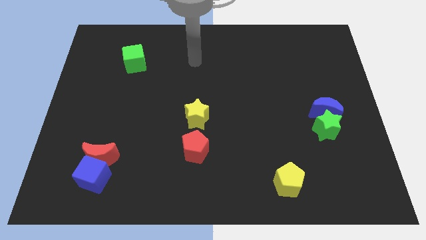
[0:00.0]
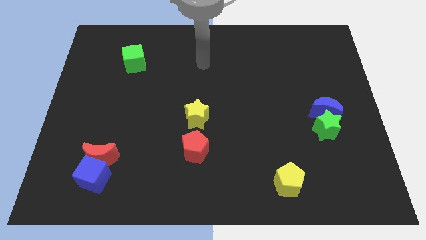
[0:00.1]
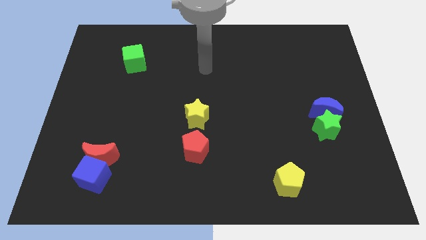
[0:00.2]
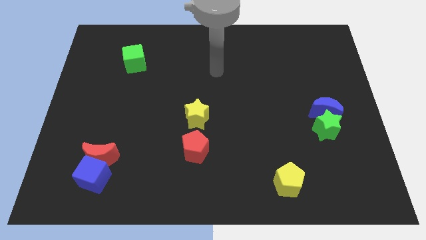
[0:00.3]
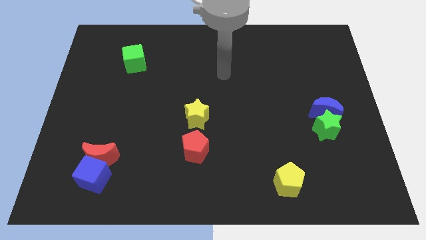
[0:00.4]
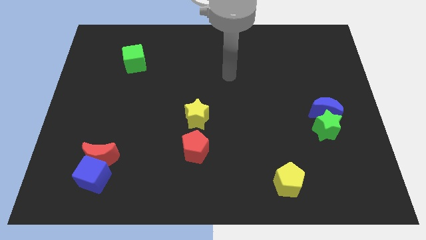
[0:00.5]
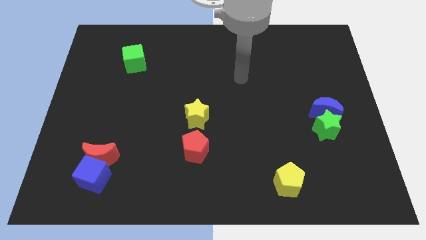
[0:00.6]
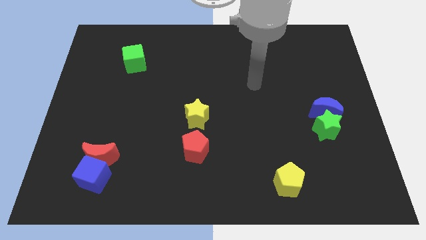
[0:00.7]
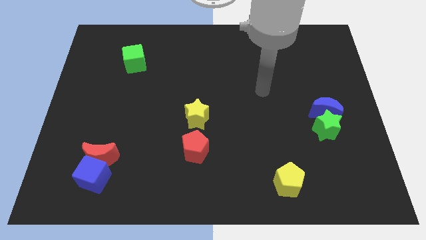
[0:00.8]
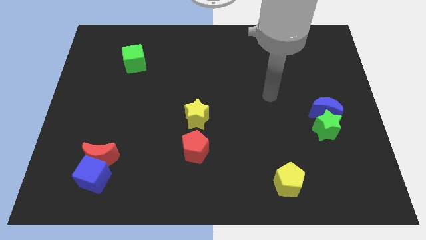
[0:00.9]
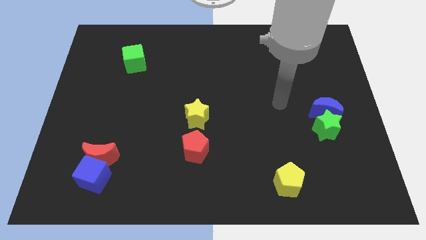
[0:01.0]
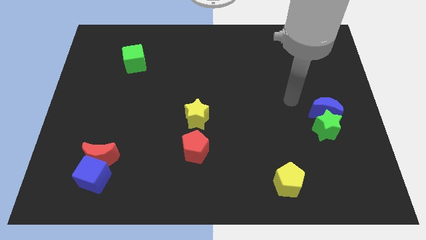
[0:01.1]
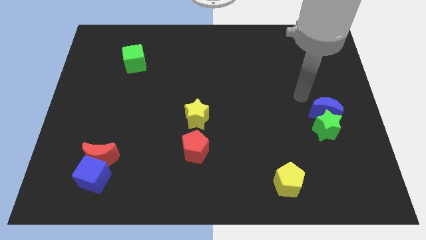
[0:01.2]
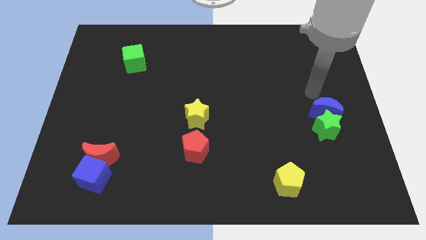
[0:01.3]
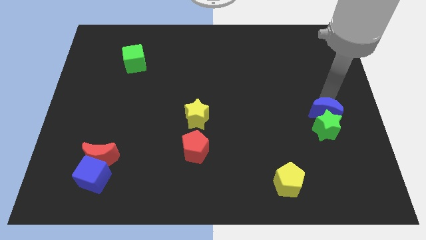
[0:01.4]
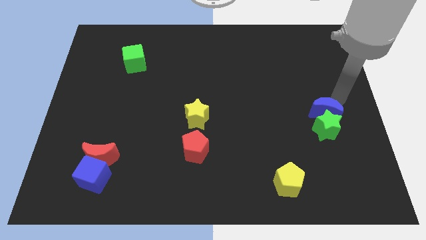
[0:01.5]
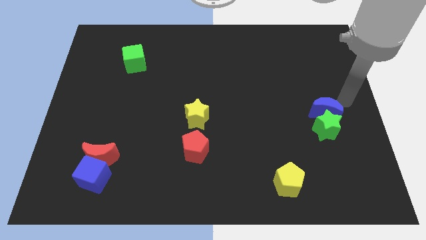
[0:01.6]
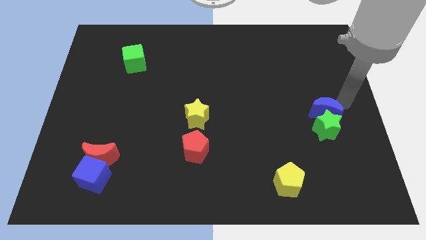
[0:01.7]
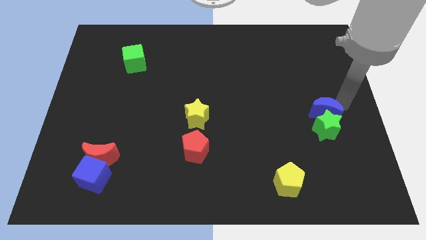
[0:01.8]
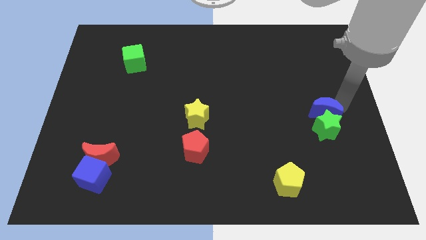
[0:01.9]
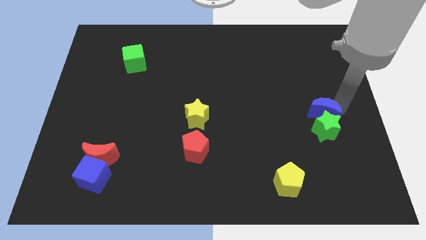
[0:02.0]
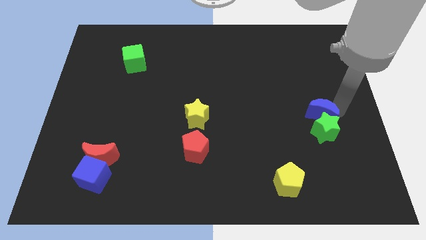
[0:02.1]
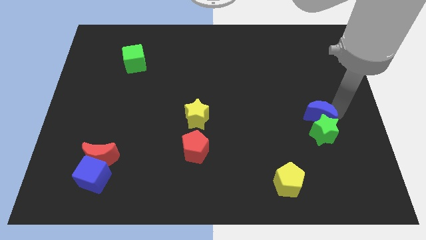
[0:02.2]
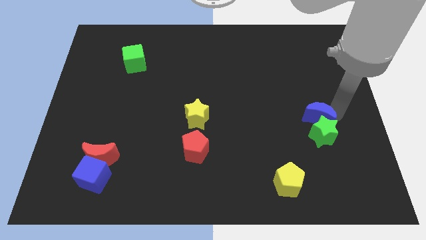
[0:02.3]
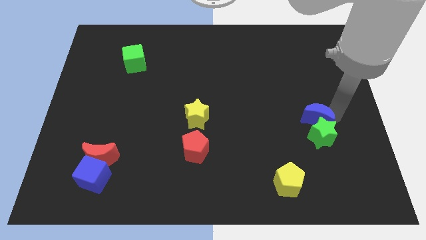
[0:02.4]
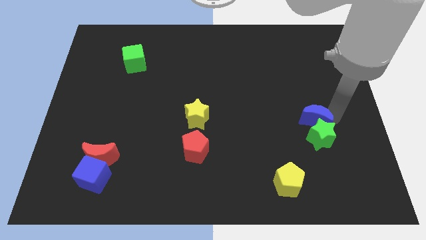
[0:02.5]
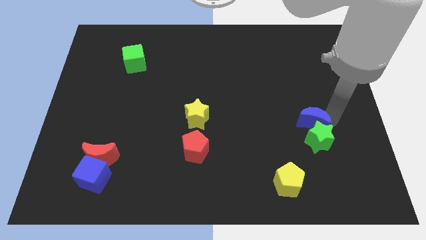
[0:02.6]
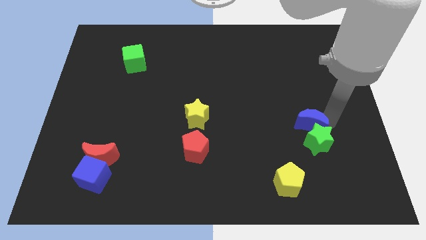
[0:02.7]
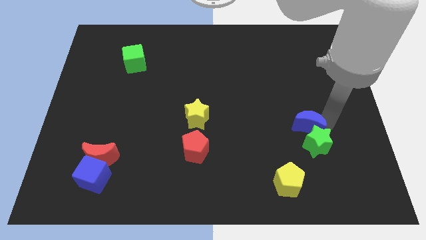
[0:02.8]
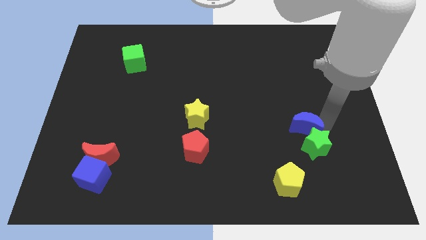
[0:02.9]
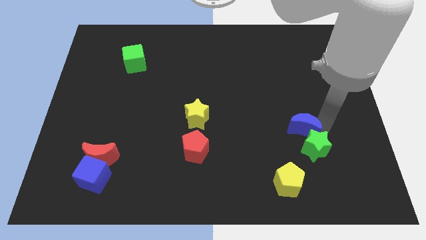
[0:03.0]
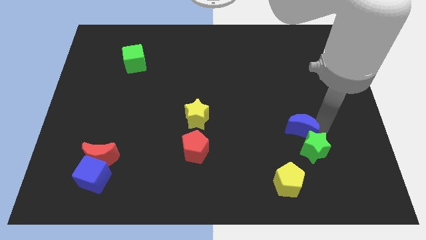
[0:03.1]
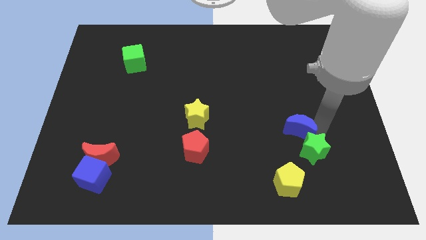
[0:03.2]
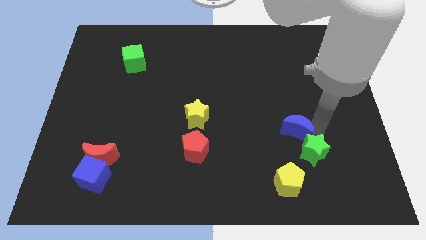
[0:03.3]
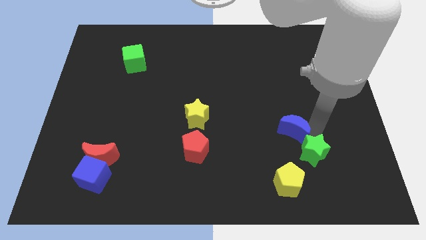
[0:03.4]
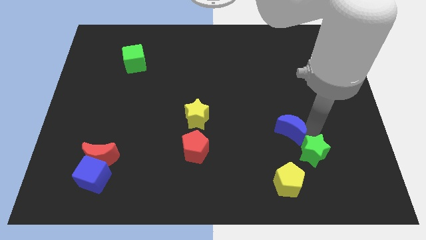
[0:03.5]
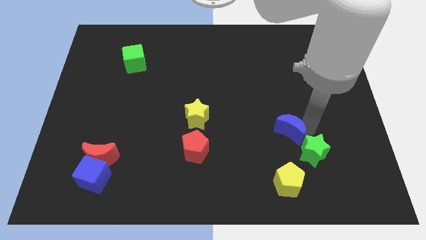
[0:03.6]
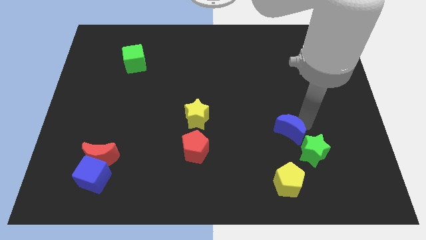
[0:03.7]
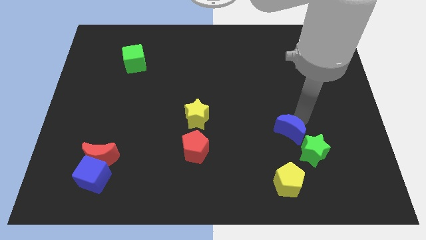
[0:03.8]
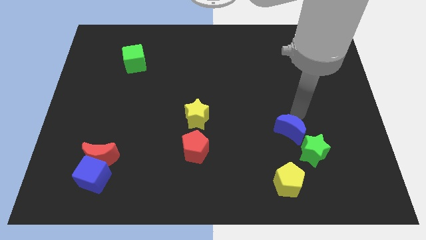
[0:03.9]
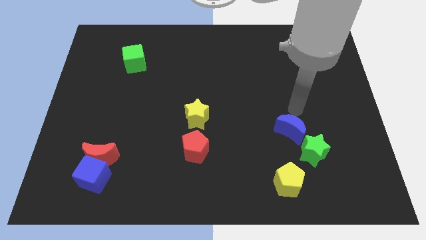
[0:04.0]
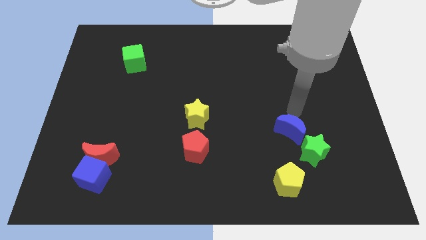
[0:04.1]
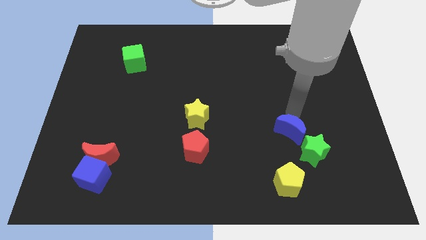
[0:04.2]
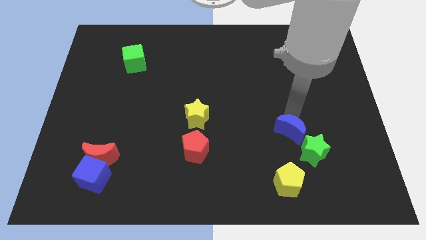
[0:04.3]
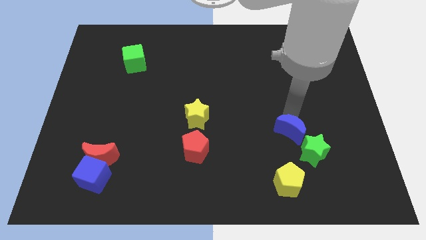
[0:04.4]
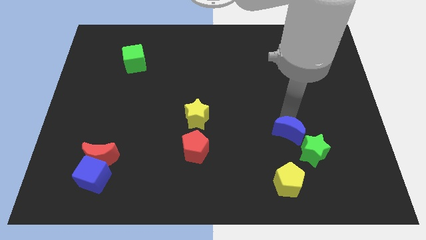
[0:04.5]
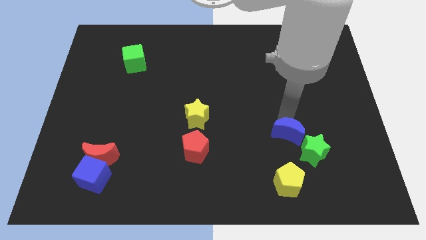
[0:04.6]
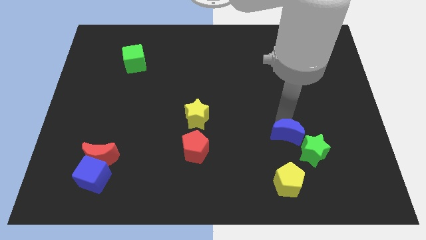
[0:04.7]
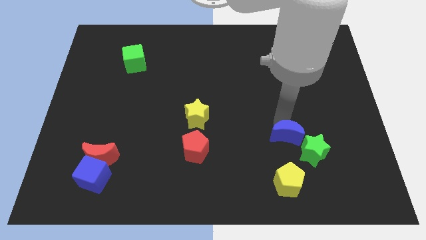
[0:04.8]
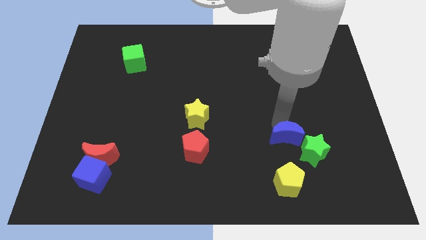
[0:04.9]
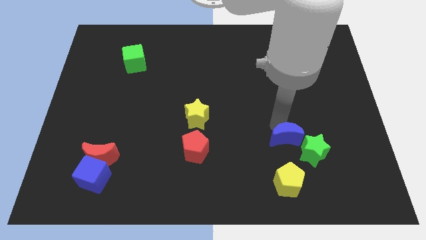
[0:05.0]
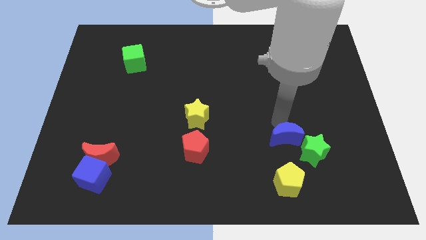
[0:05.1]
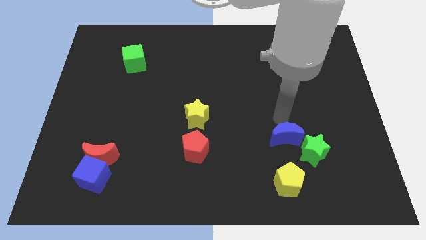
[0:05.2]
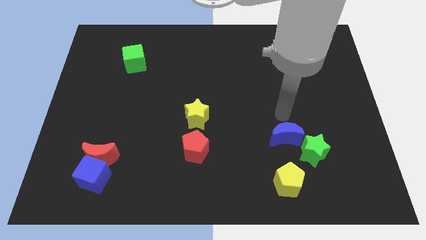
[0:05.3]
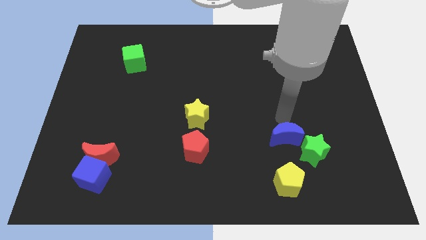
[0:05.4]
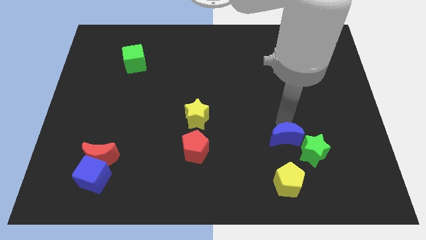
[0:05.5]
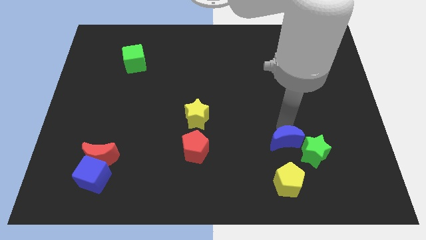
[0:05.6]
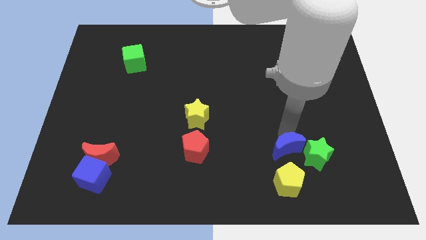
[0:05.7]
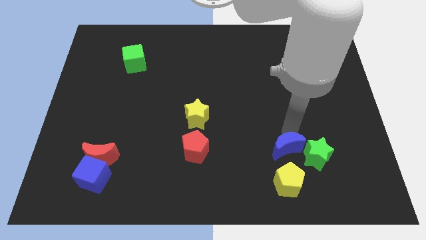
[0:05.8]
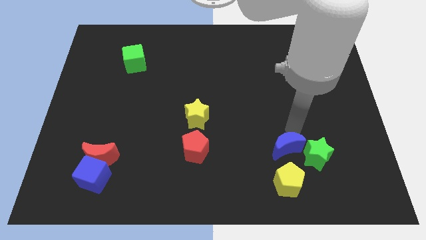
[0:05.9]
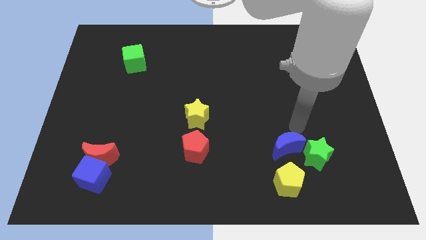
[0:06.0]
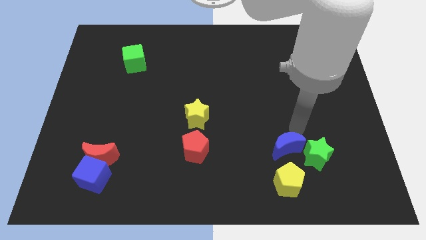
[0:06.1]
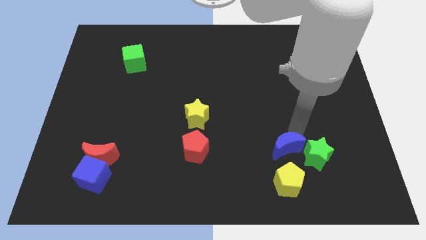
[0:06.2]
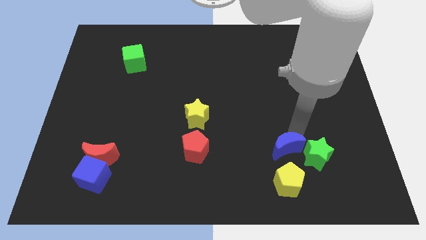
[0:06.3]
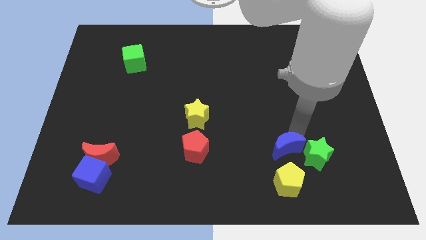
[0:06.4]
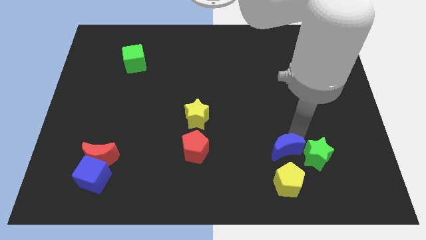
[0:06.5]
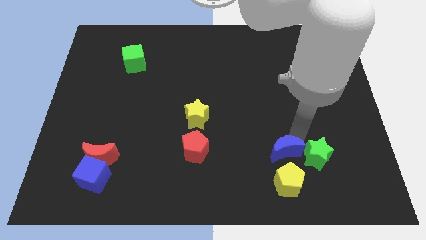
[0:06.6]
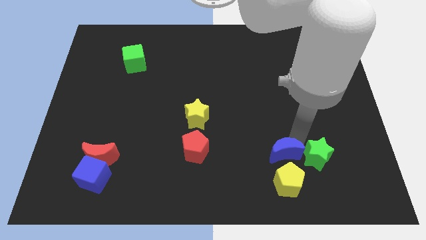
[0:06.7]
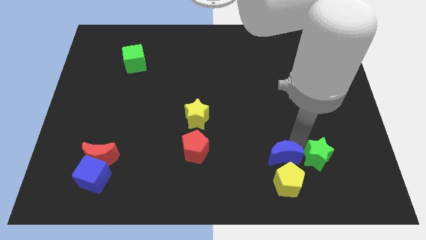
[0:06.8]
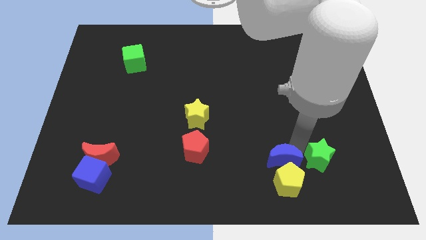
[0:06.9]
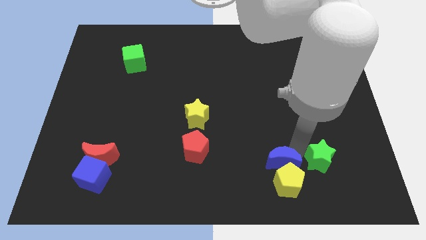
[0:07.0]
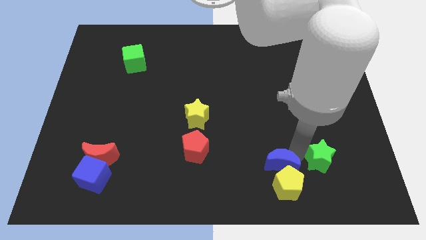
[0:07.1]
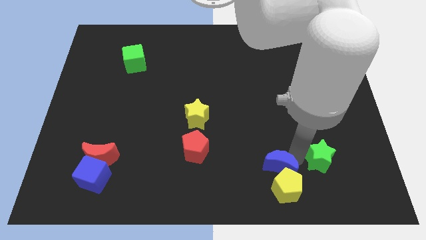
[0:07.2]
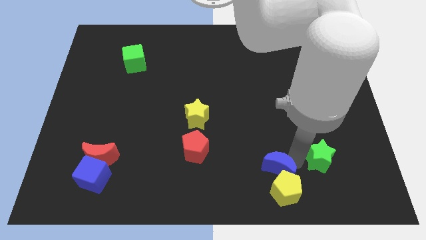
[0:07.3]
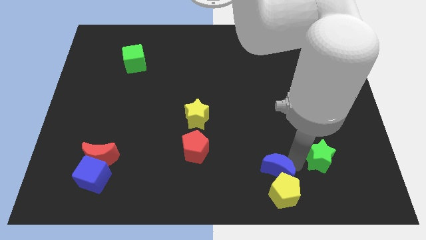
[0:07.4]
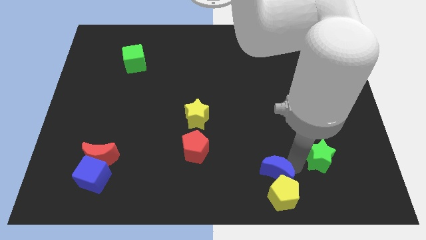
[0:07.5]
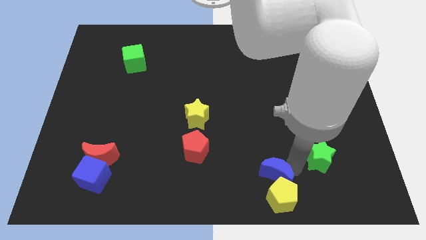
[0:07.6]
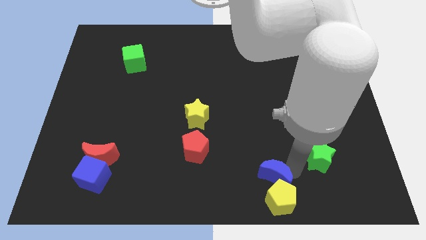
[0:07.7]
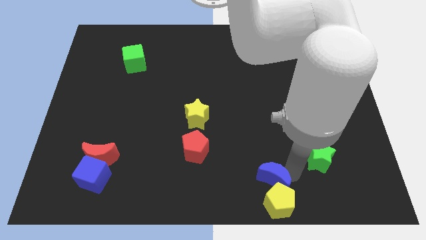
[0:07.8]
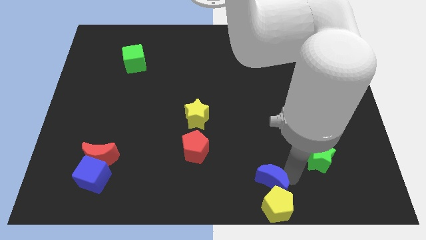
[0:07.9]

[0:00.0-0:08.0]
push the blue moon to the bottom
